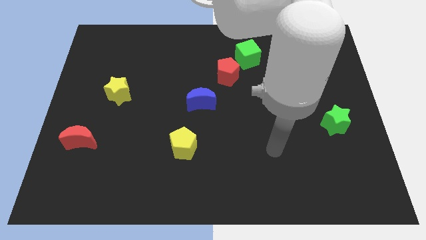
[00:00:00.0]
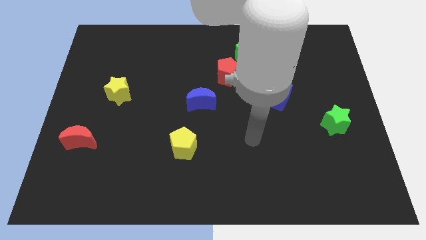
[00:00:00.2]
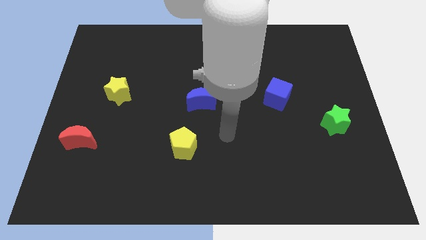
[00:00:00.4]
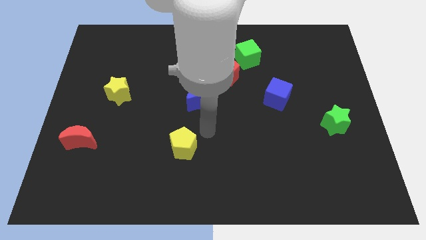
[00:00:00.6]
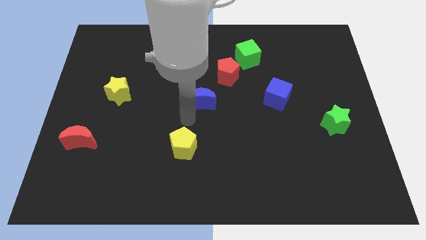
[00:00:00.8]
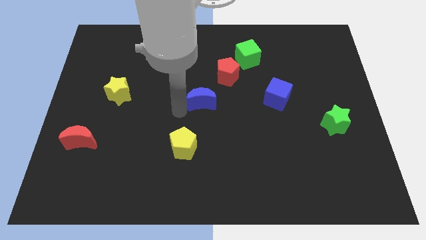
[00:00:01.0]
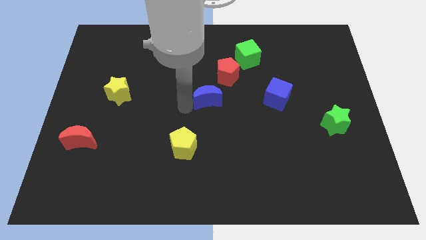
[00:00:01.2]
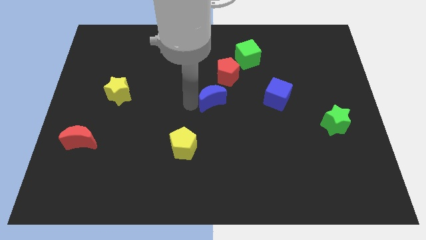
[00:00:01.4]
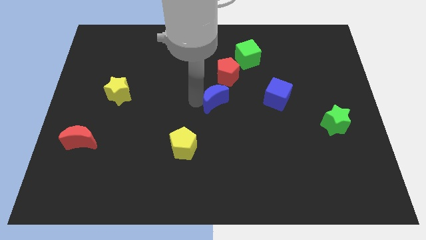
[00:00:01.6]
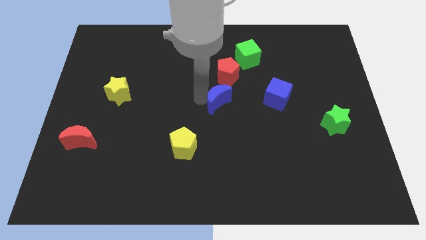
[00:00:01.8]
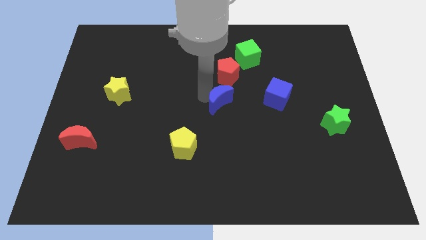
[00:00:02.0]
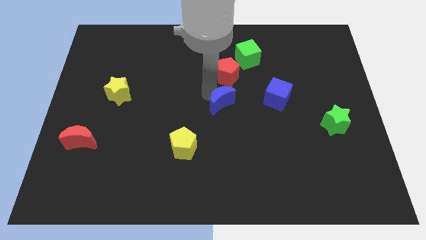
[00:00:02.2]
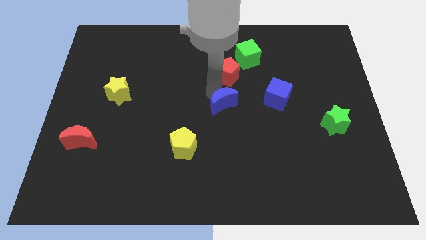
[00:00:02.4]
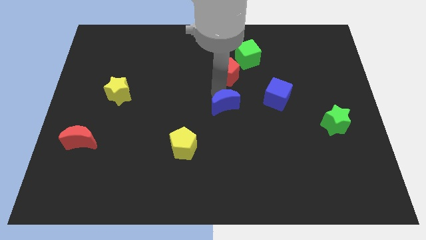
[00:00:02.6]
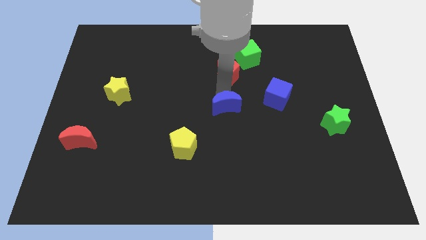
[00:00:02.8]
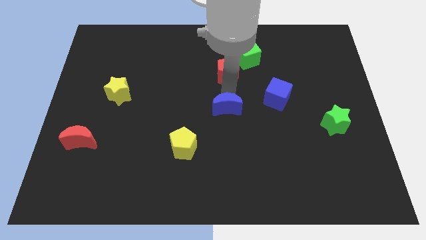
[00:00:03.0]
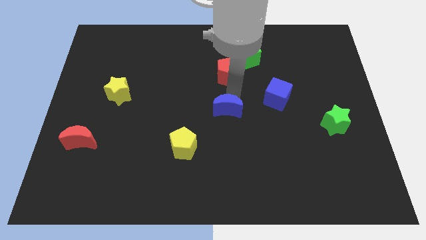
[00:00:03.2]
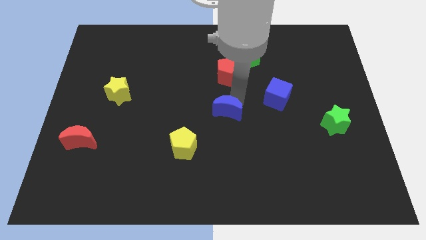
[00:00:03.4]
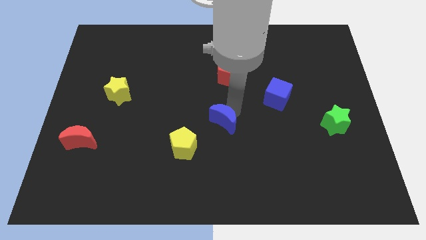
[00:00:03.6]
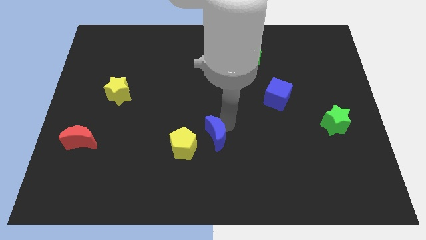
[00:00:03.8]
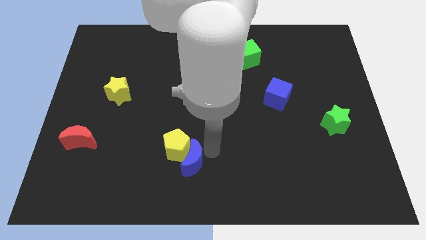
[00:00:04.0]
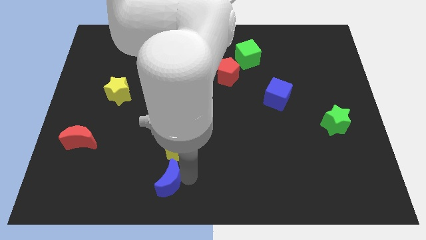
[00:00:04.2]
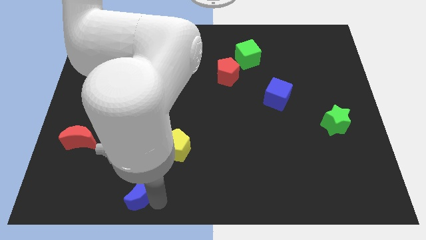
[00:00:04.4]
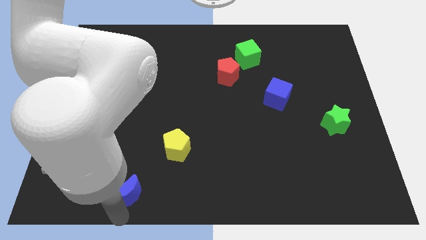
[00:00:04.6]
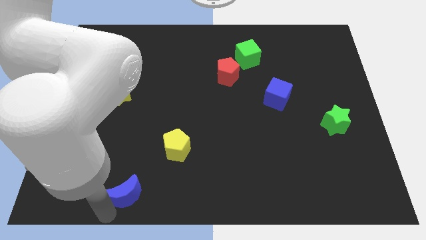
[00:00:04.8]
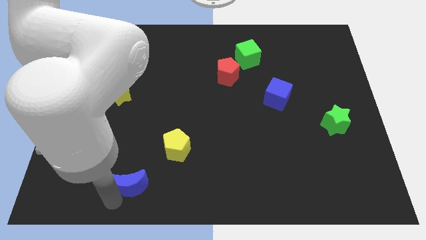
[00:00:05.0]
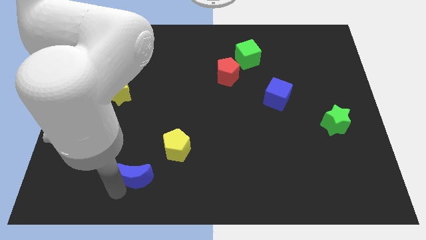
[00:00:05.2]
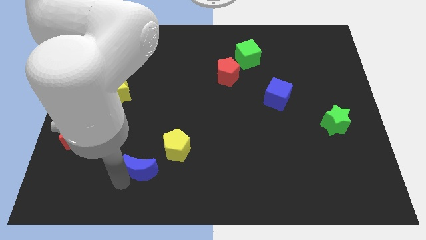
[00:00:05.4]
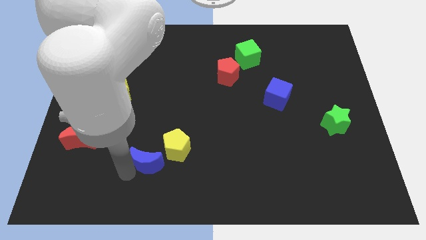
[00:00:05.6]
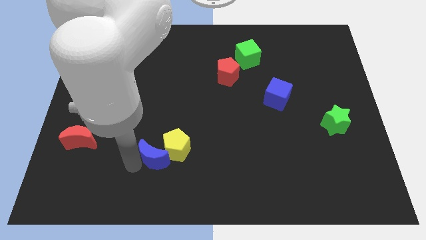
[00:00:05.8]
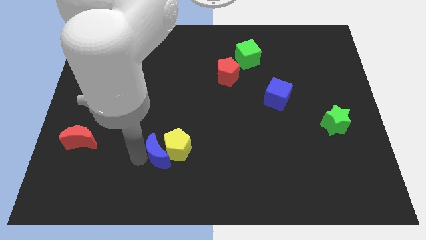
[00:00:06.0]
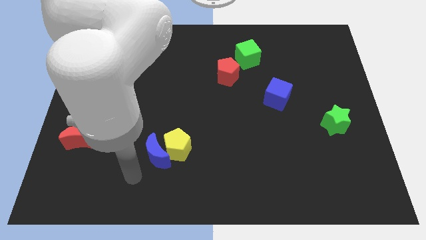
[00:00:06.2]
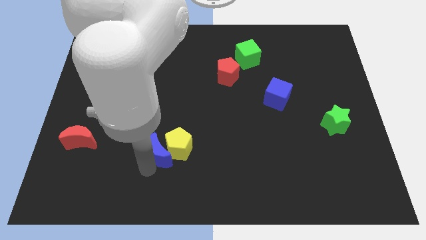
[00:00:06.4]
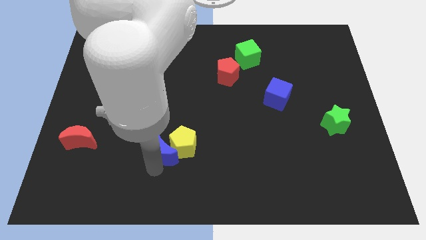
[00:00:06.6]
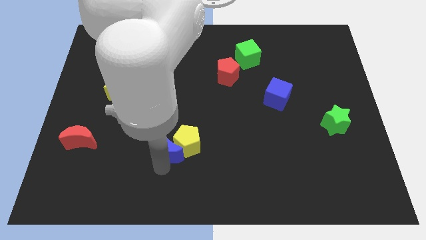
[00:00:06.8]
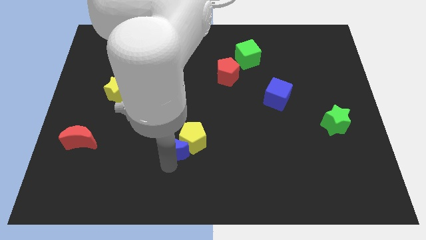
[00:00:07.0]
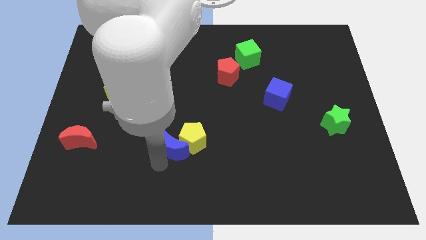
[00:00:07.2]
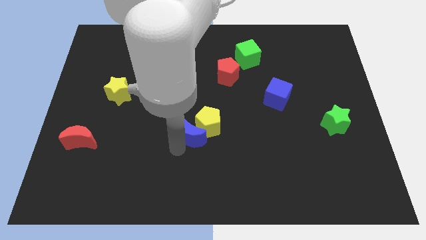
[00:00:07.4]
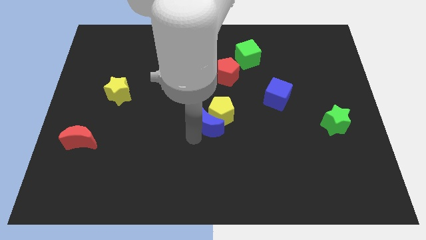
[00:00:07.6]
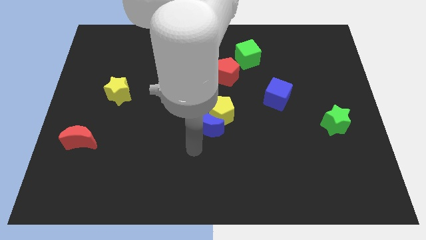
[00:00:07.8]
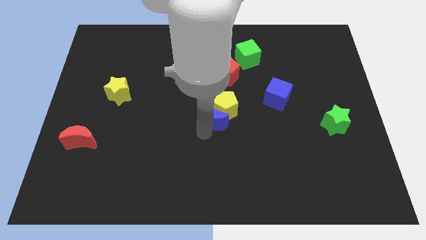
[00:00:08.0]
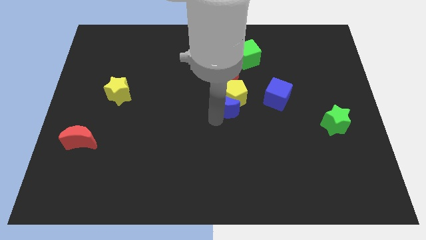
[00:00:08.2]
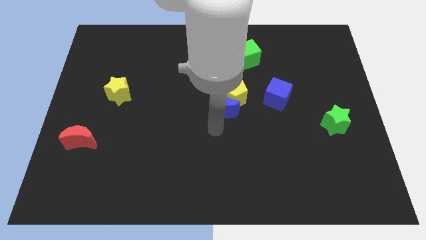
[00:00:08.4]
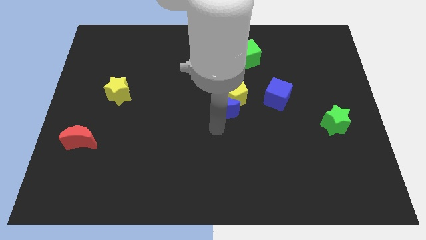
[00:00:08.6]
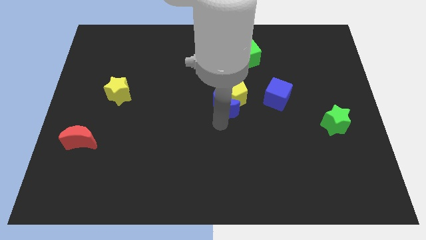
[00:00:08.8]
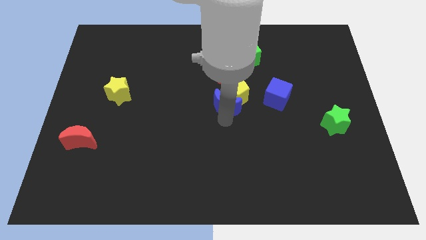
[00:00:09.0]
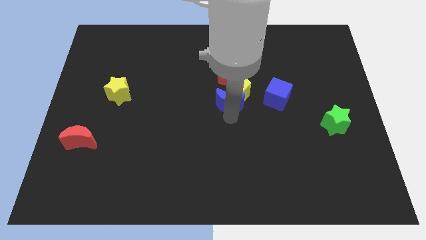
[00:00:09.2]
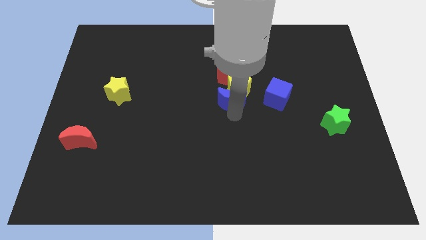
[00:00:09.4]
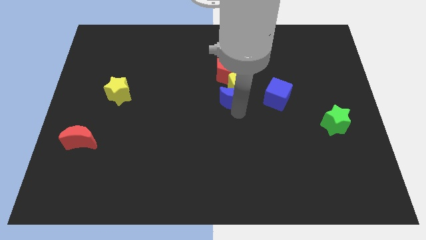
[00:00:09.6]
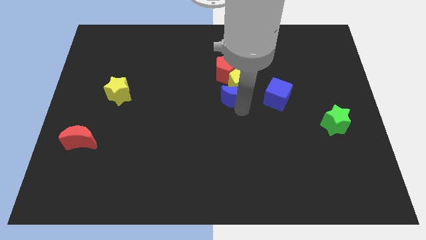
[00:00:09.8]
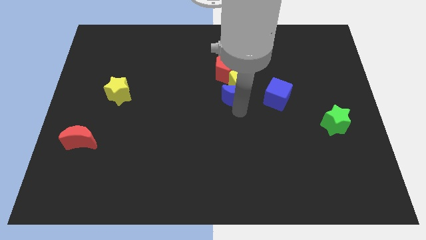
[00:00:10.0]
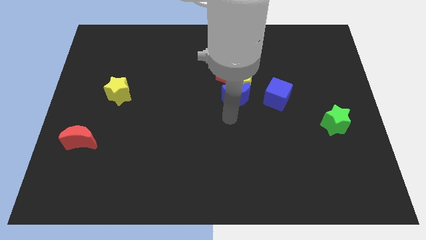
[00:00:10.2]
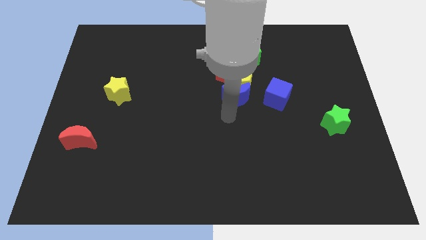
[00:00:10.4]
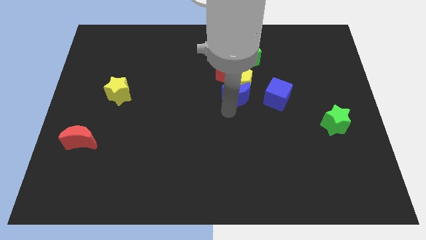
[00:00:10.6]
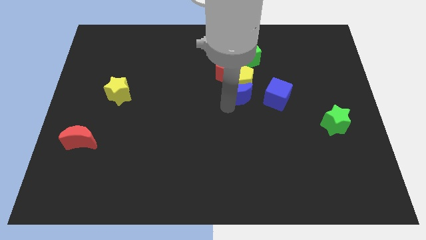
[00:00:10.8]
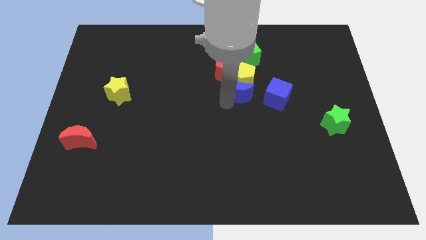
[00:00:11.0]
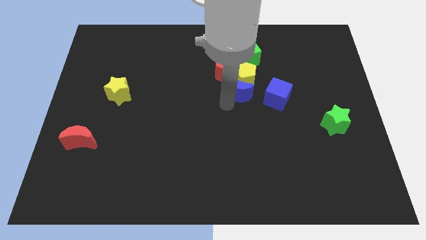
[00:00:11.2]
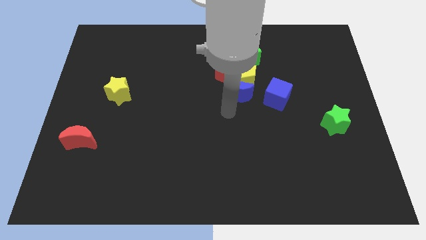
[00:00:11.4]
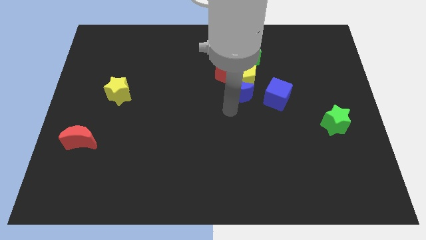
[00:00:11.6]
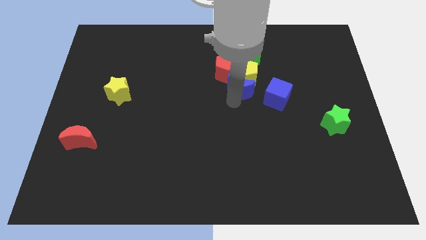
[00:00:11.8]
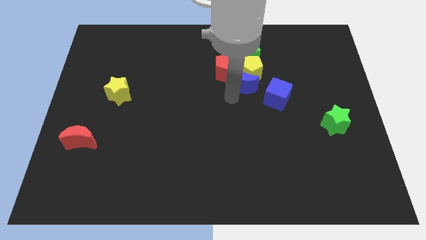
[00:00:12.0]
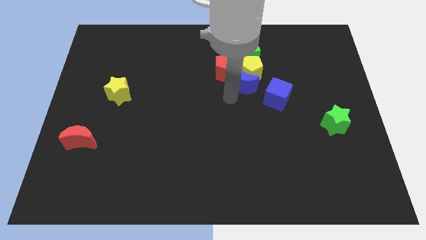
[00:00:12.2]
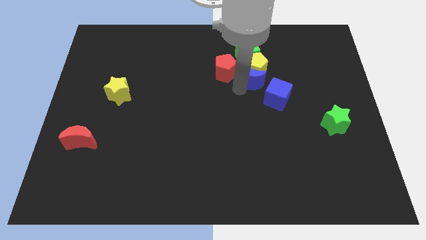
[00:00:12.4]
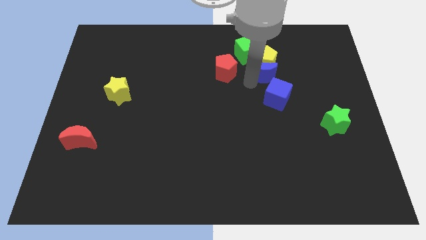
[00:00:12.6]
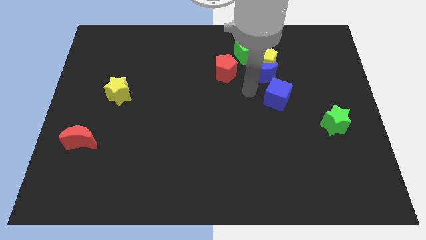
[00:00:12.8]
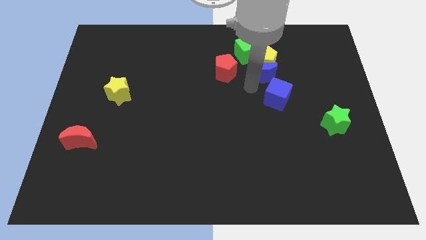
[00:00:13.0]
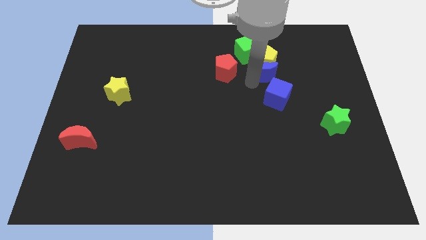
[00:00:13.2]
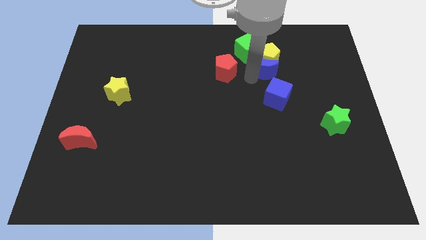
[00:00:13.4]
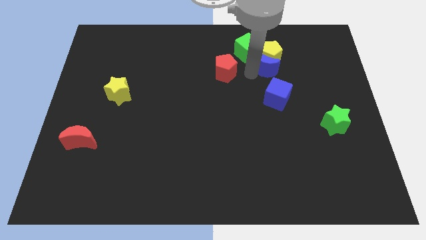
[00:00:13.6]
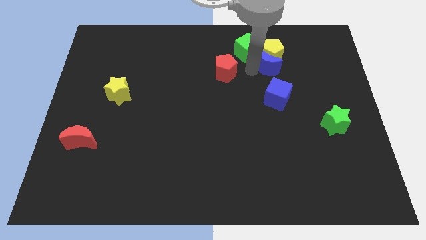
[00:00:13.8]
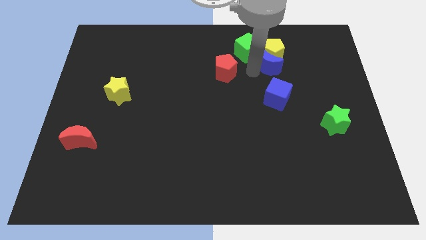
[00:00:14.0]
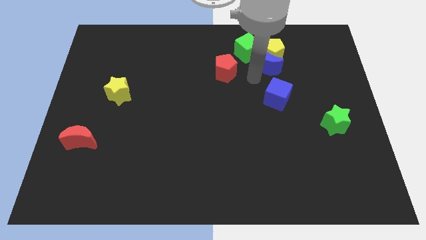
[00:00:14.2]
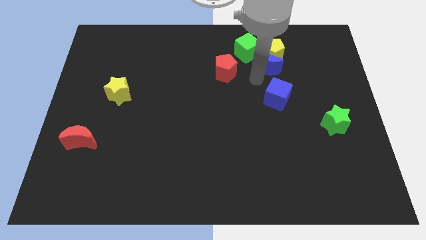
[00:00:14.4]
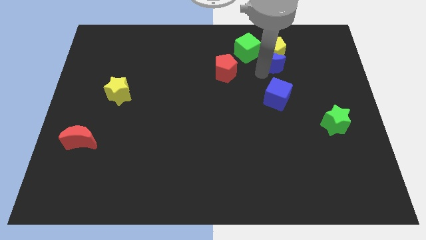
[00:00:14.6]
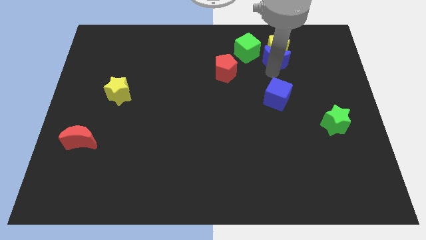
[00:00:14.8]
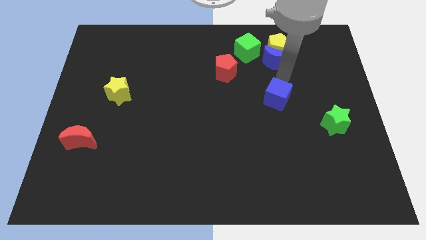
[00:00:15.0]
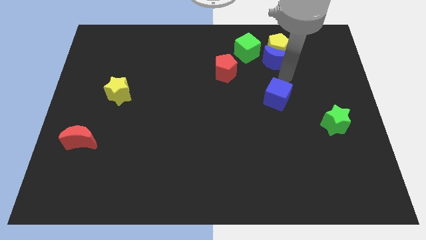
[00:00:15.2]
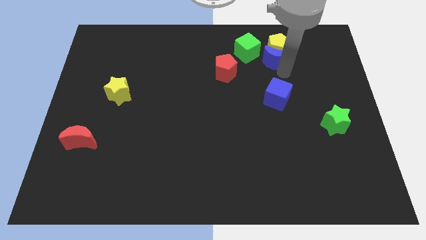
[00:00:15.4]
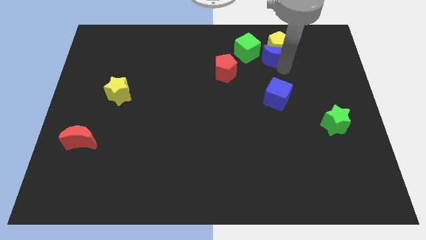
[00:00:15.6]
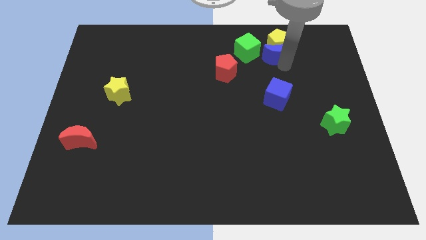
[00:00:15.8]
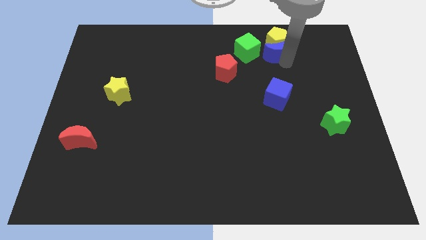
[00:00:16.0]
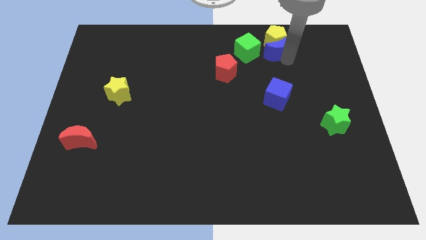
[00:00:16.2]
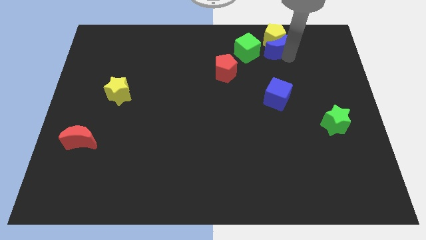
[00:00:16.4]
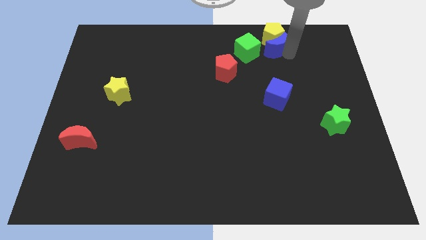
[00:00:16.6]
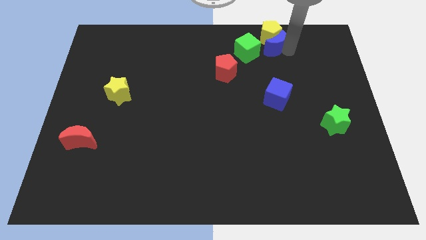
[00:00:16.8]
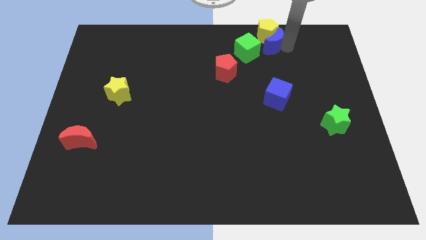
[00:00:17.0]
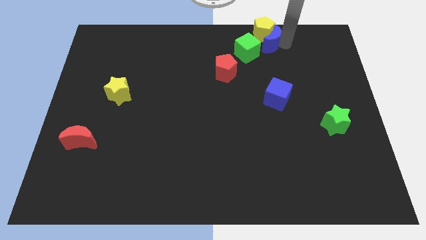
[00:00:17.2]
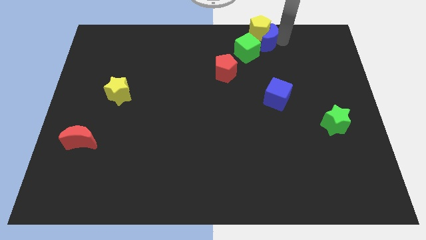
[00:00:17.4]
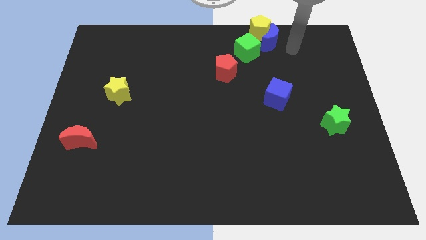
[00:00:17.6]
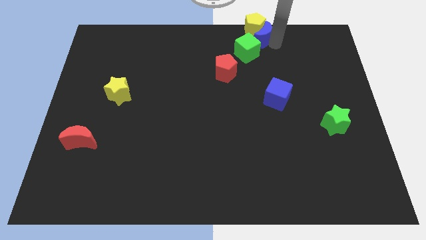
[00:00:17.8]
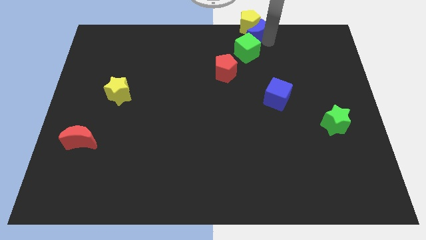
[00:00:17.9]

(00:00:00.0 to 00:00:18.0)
put the blue moon to the towards your base
